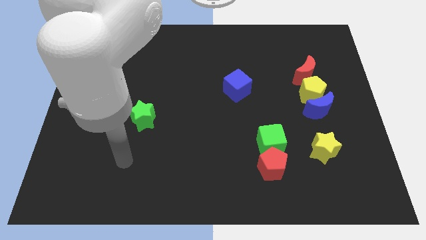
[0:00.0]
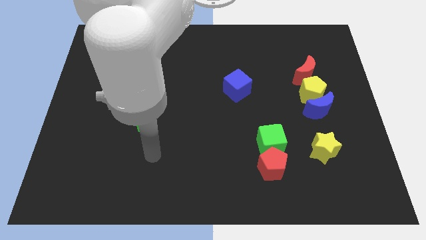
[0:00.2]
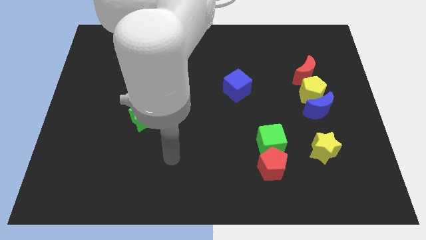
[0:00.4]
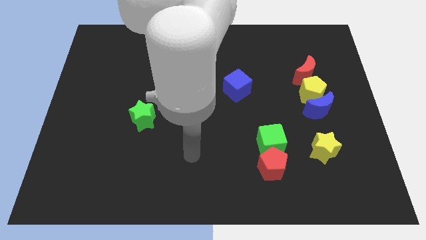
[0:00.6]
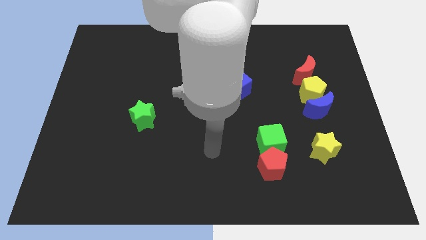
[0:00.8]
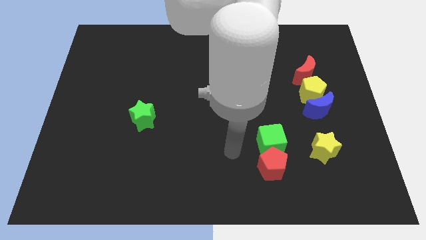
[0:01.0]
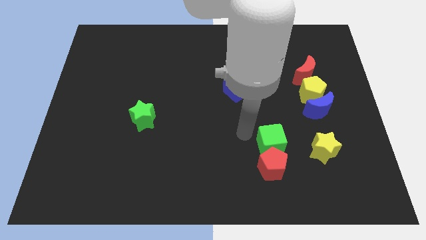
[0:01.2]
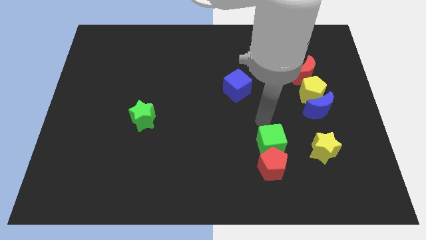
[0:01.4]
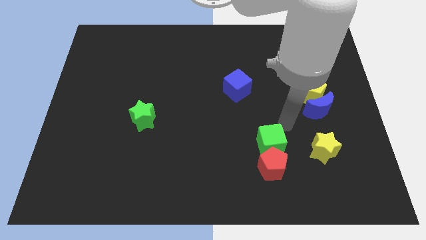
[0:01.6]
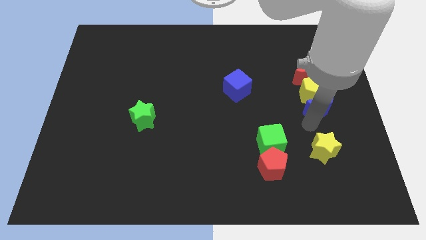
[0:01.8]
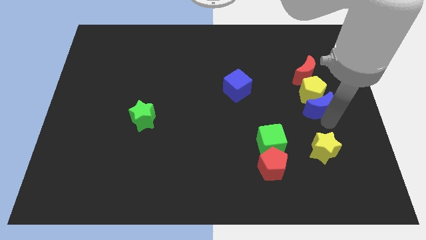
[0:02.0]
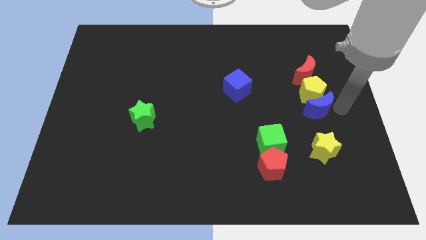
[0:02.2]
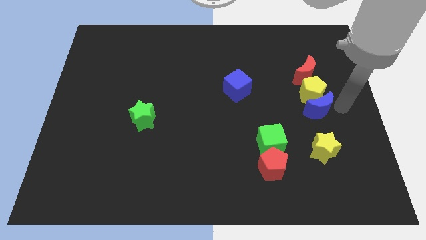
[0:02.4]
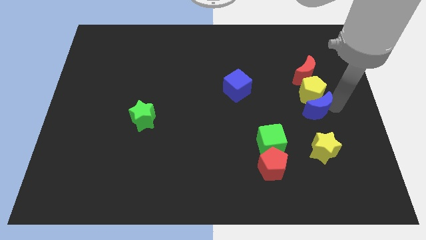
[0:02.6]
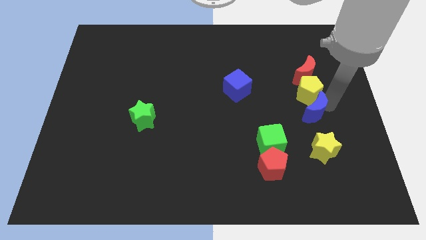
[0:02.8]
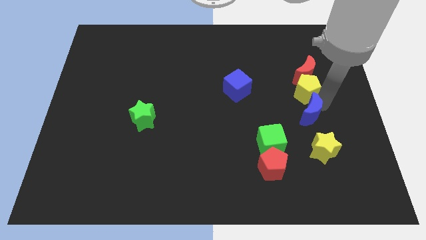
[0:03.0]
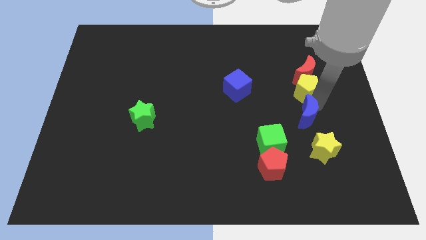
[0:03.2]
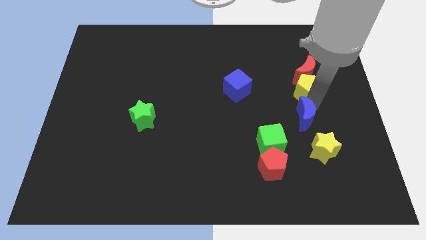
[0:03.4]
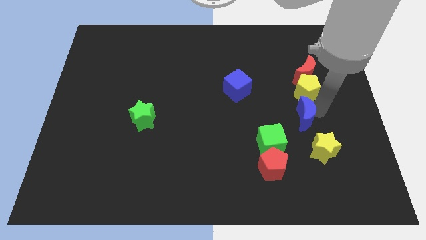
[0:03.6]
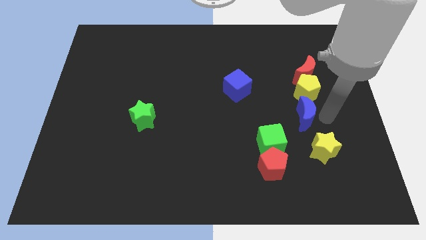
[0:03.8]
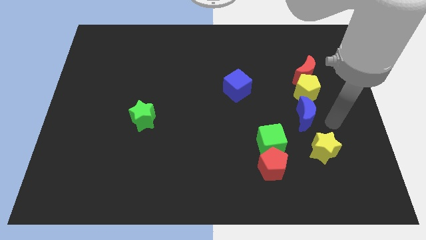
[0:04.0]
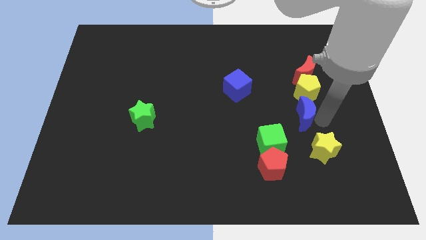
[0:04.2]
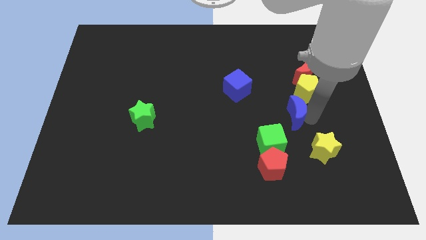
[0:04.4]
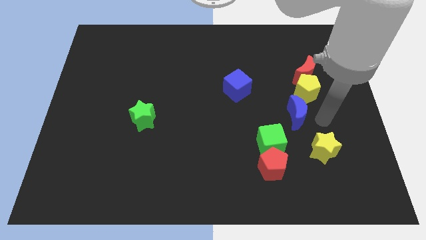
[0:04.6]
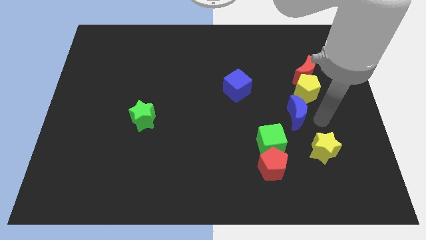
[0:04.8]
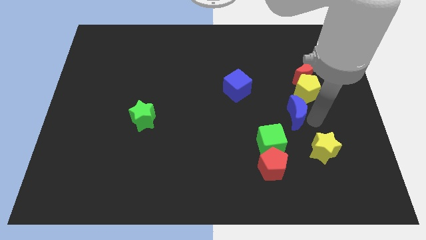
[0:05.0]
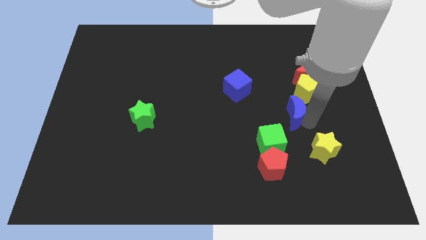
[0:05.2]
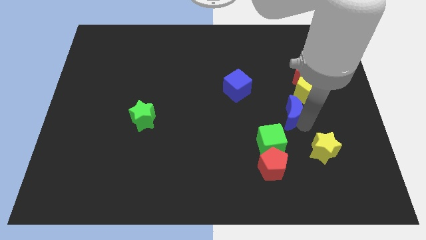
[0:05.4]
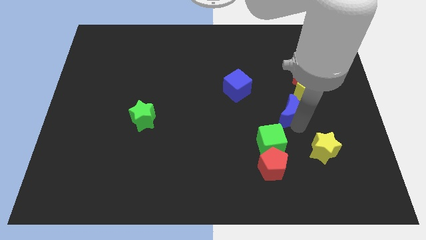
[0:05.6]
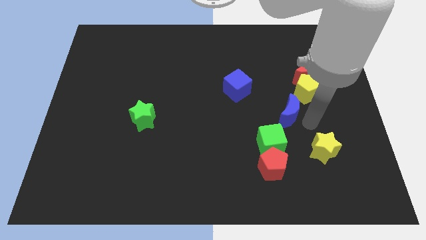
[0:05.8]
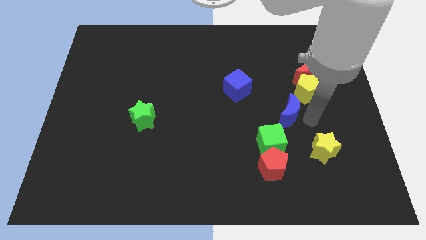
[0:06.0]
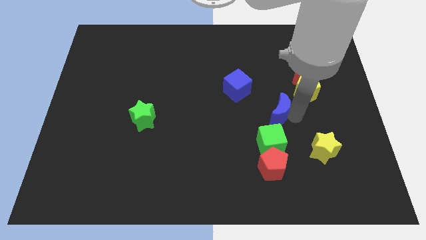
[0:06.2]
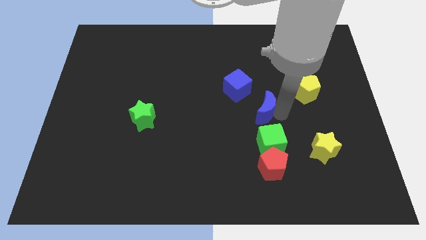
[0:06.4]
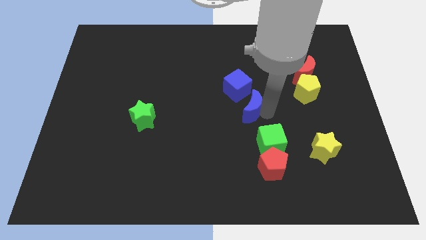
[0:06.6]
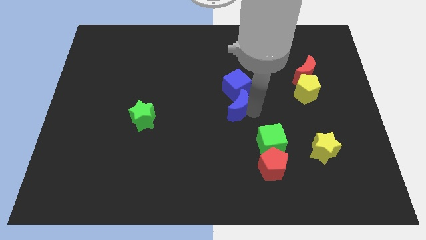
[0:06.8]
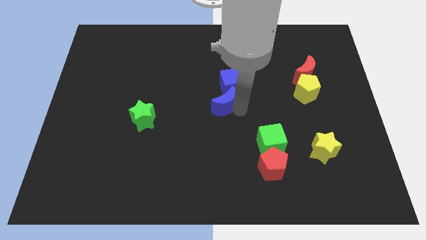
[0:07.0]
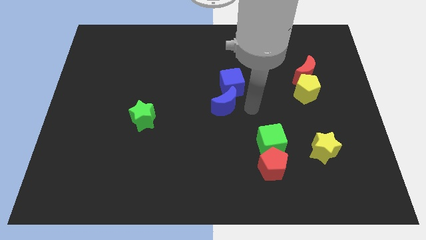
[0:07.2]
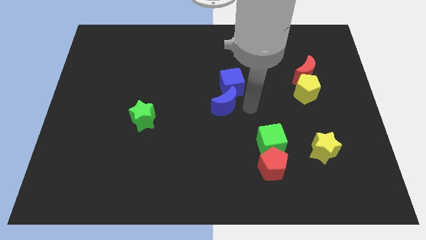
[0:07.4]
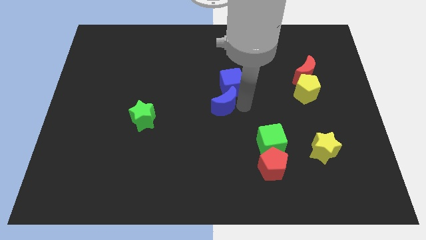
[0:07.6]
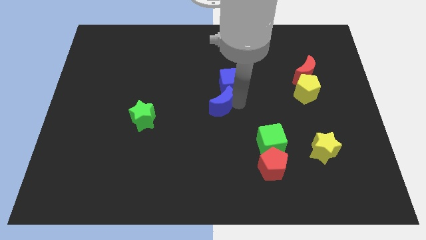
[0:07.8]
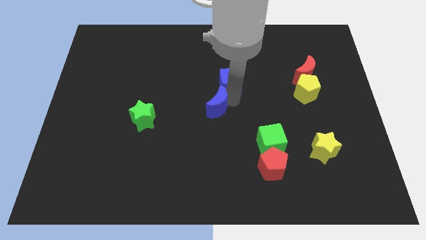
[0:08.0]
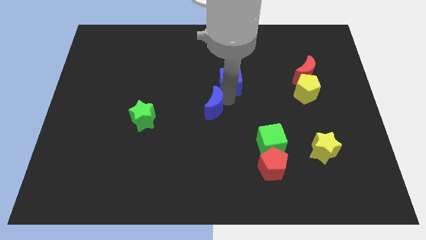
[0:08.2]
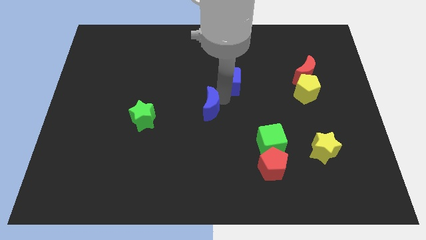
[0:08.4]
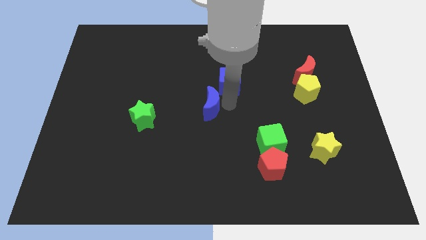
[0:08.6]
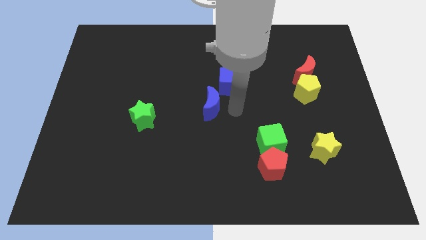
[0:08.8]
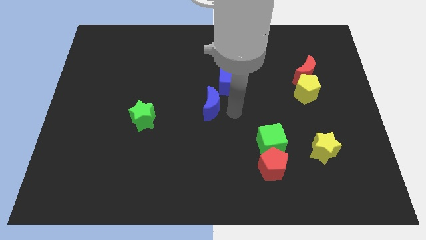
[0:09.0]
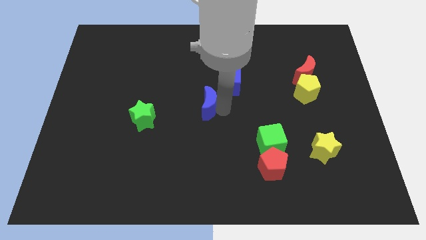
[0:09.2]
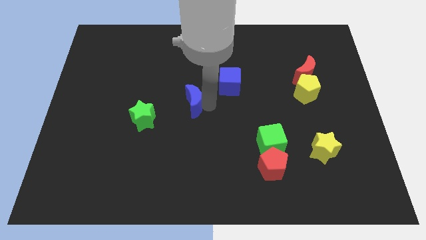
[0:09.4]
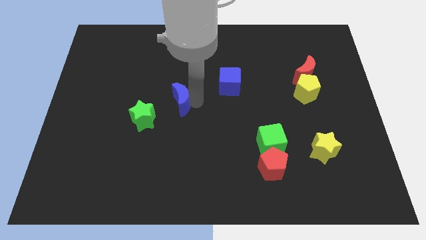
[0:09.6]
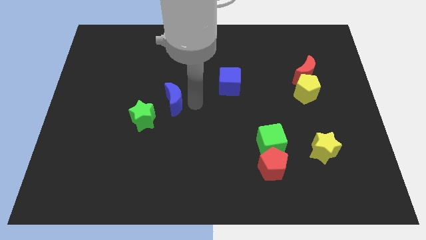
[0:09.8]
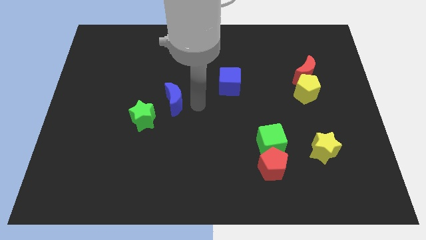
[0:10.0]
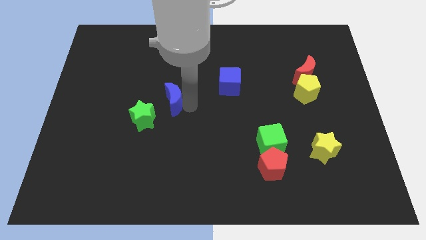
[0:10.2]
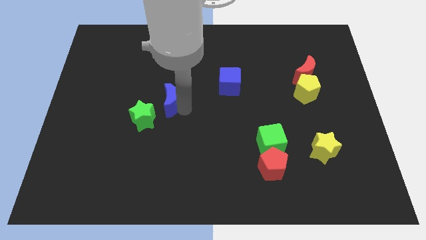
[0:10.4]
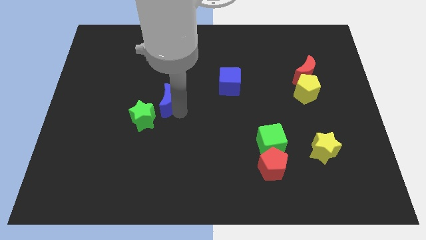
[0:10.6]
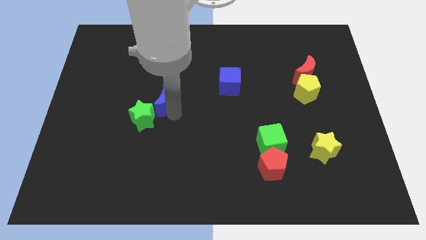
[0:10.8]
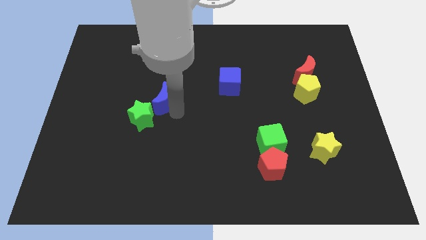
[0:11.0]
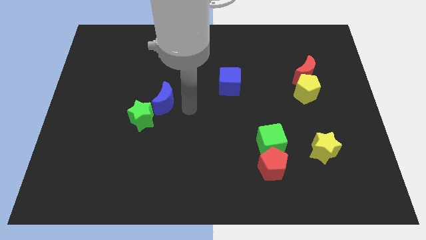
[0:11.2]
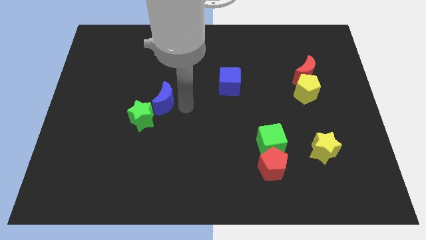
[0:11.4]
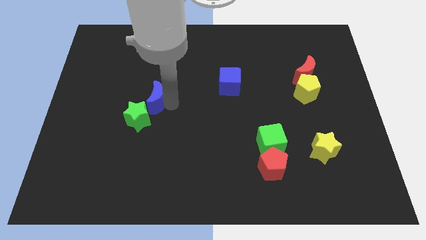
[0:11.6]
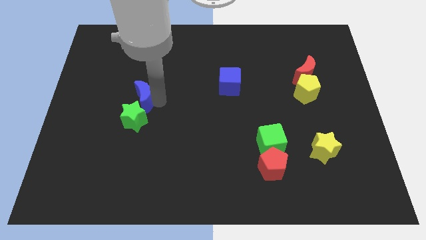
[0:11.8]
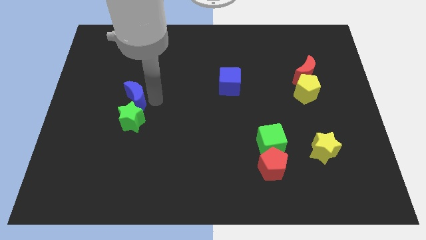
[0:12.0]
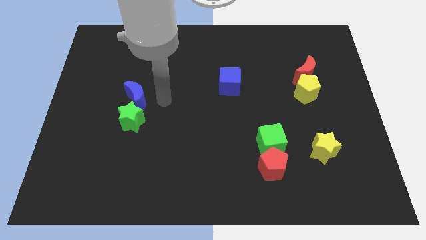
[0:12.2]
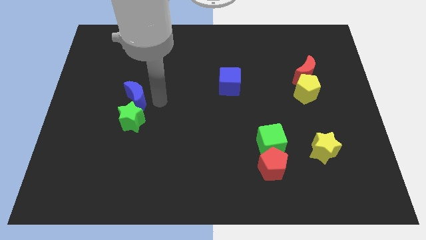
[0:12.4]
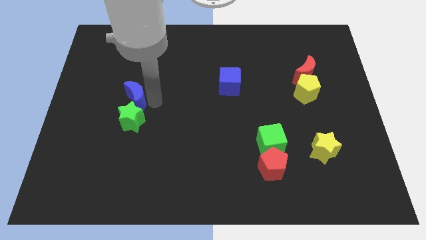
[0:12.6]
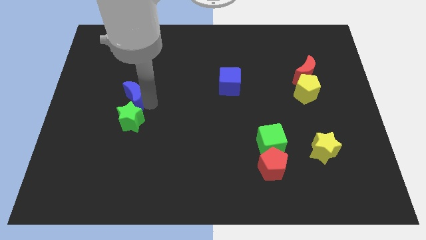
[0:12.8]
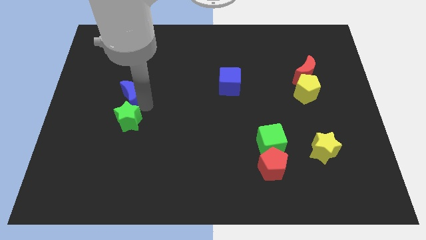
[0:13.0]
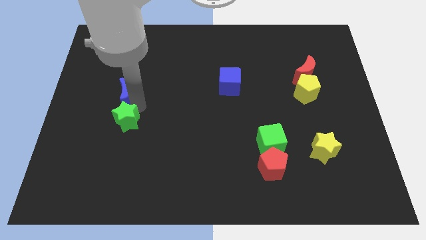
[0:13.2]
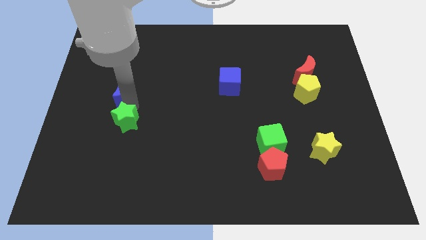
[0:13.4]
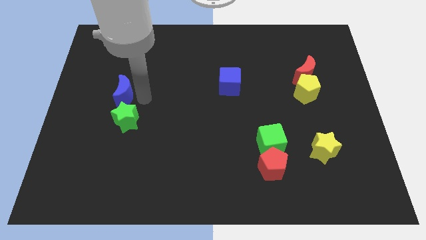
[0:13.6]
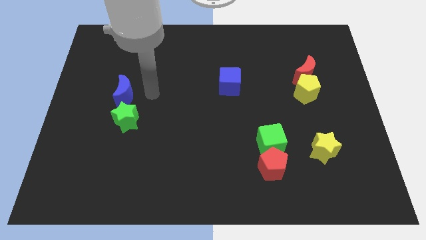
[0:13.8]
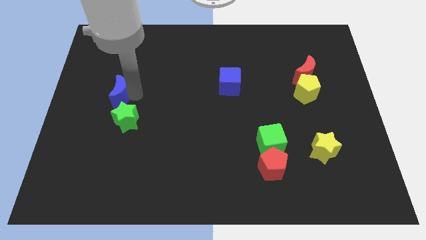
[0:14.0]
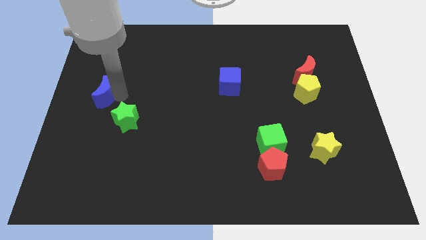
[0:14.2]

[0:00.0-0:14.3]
push the blue moon to the center left

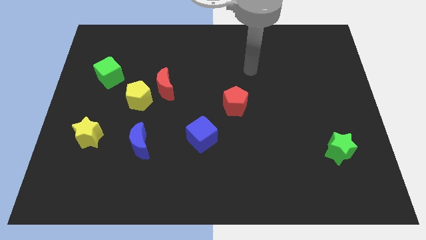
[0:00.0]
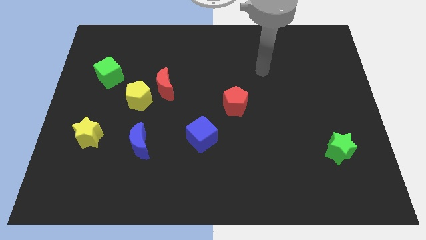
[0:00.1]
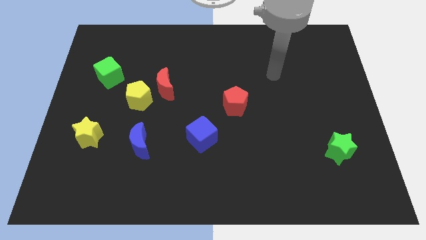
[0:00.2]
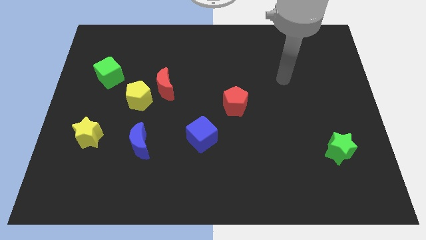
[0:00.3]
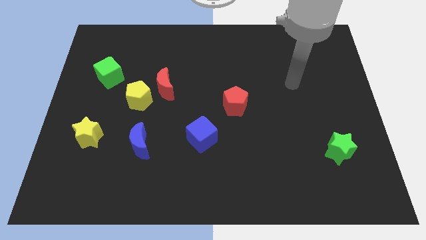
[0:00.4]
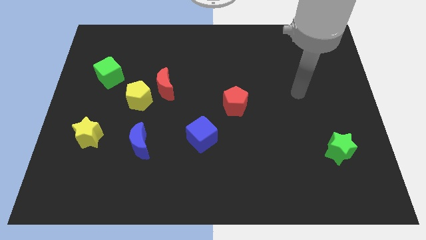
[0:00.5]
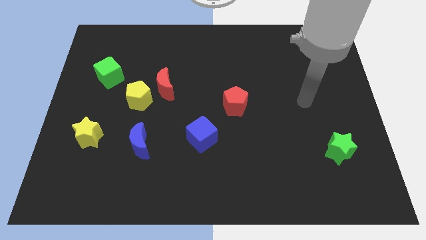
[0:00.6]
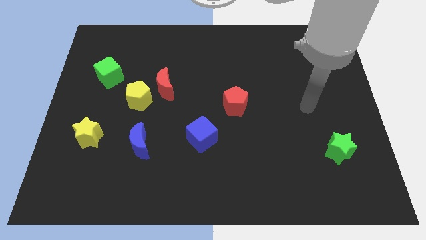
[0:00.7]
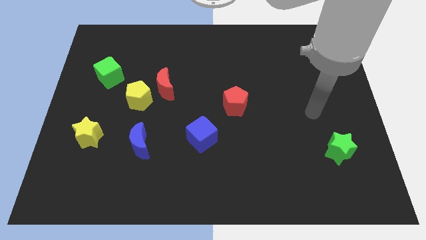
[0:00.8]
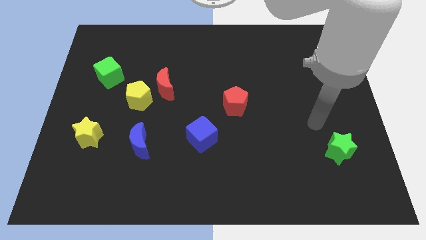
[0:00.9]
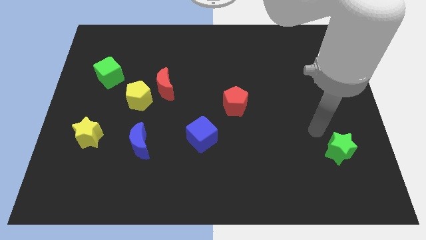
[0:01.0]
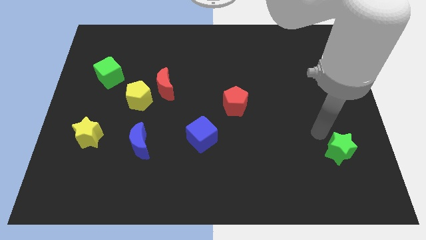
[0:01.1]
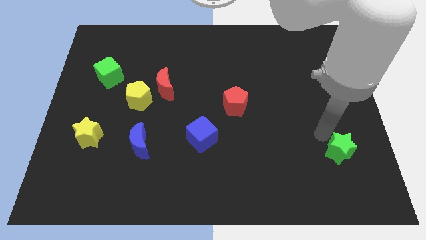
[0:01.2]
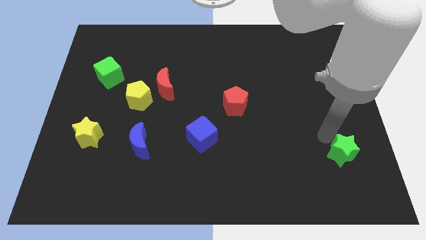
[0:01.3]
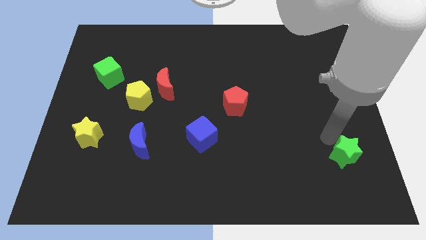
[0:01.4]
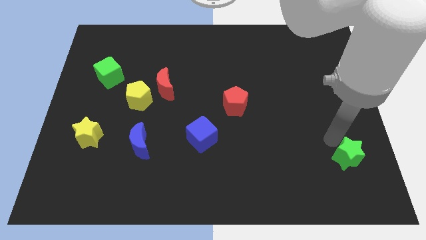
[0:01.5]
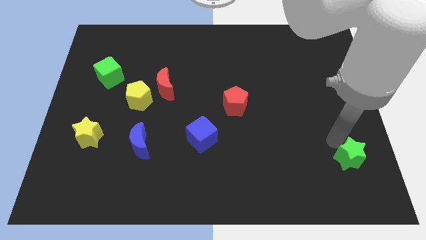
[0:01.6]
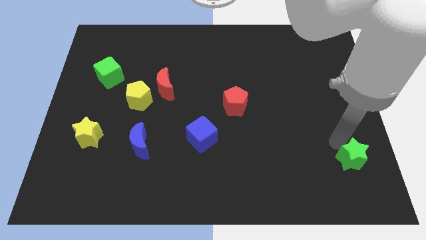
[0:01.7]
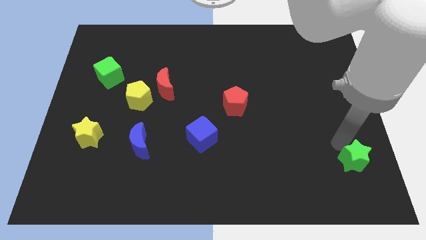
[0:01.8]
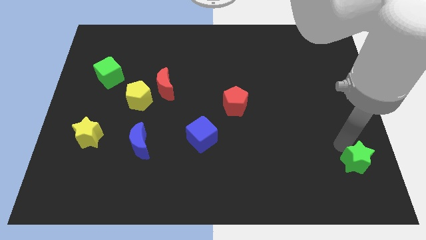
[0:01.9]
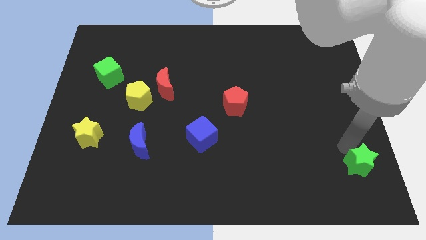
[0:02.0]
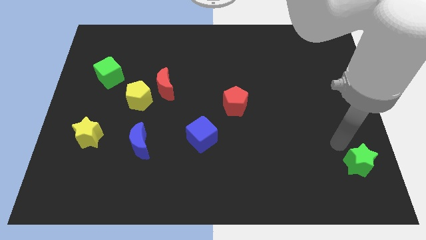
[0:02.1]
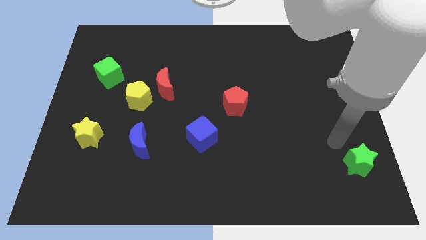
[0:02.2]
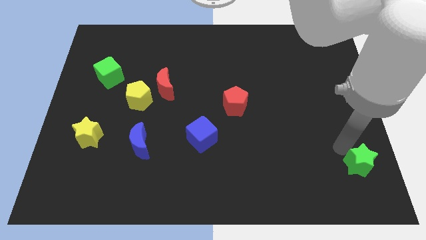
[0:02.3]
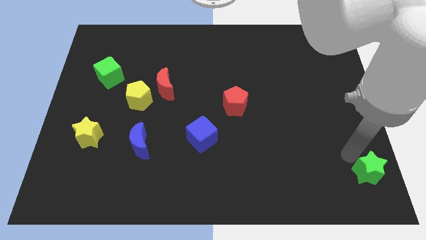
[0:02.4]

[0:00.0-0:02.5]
push the green star to the lower right corner
